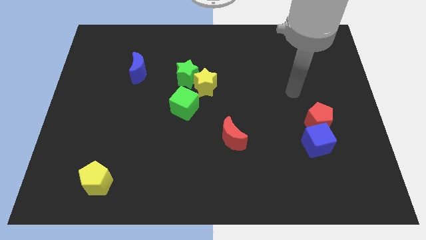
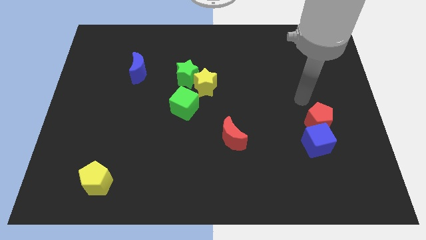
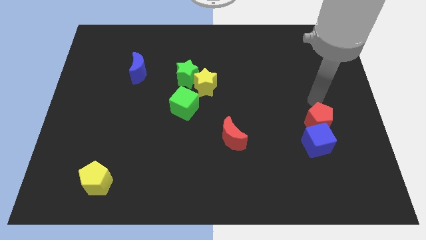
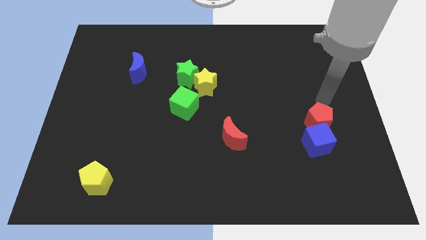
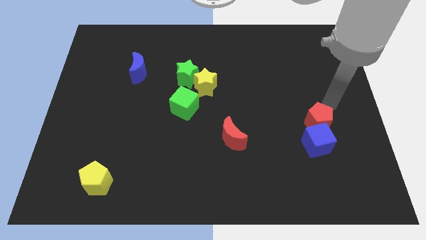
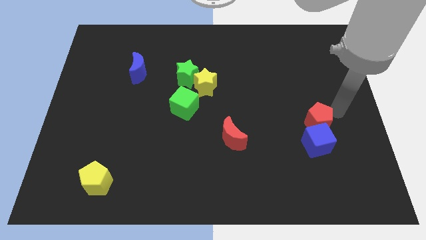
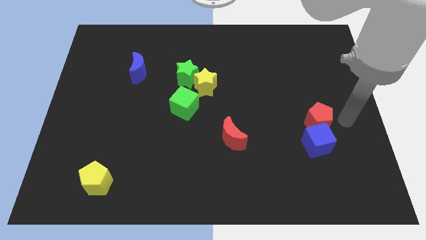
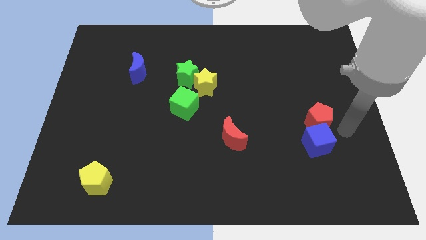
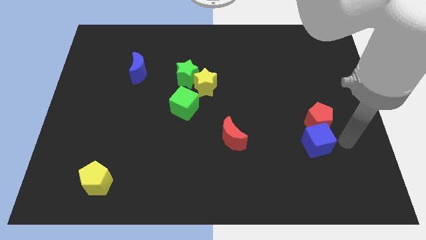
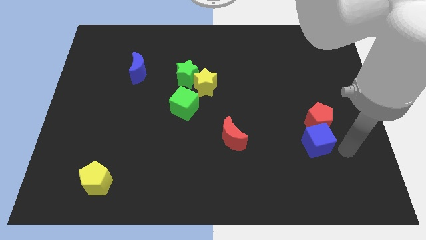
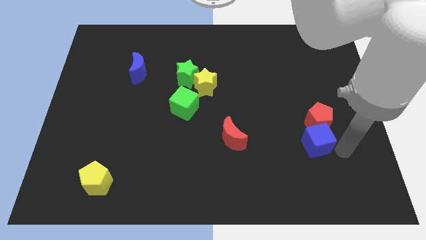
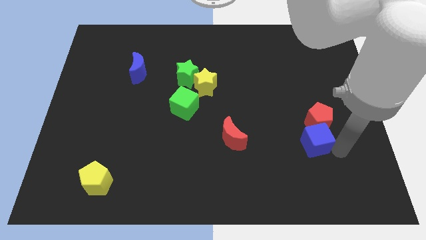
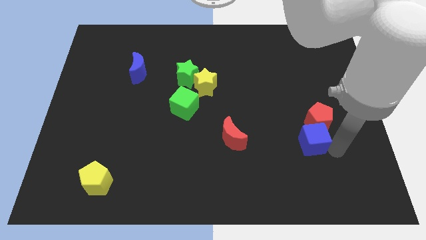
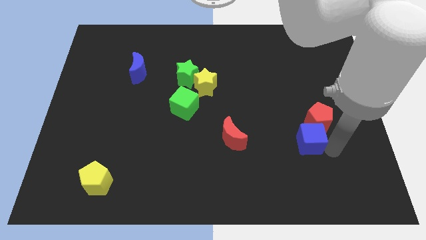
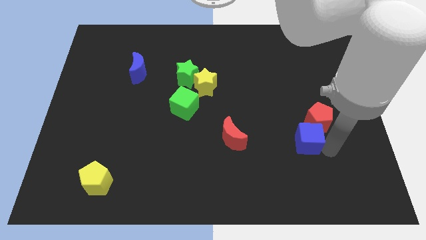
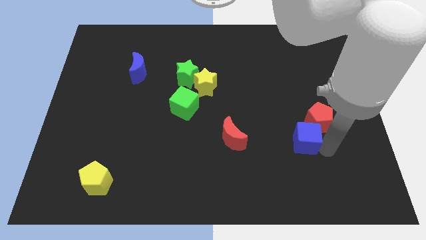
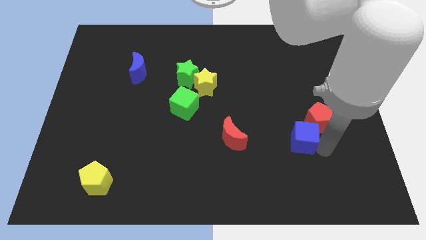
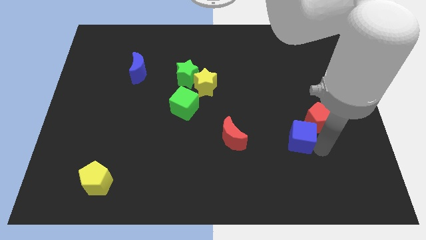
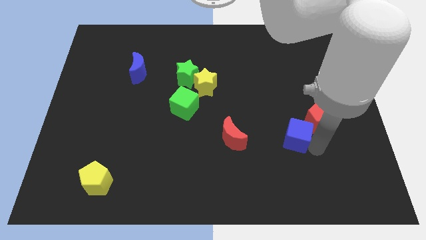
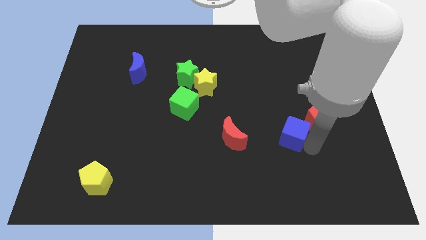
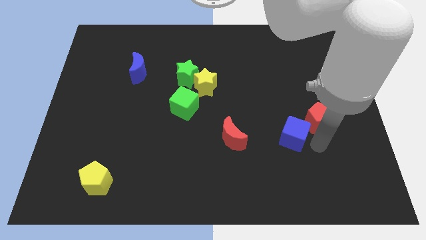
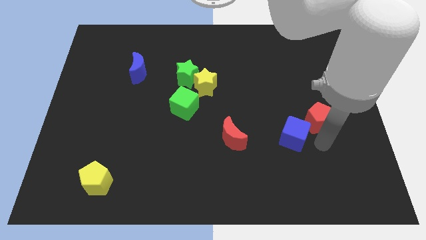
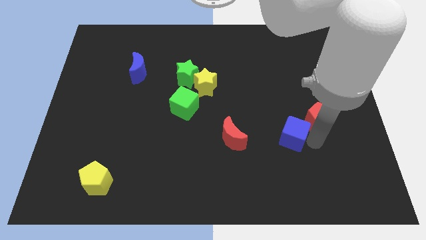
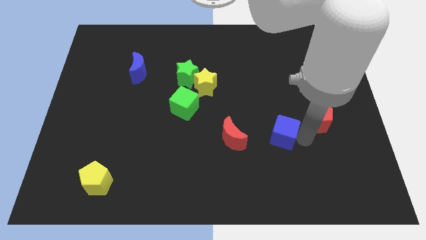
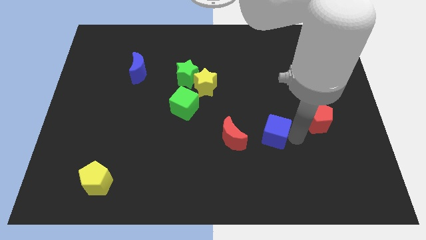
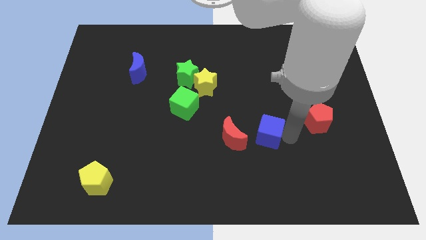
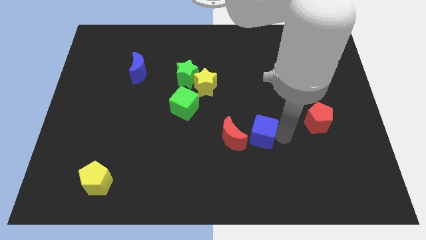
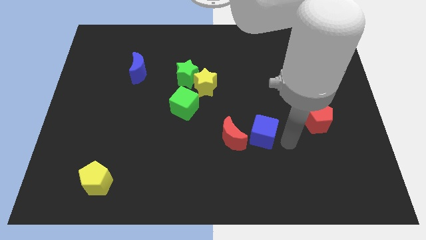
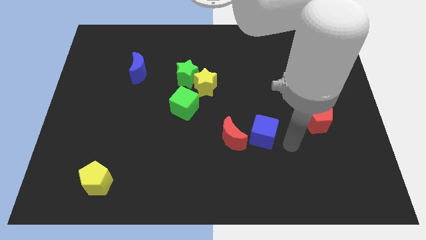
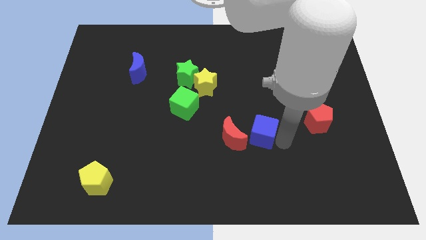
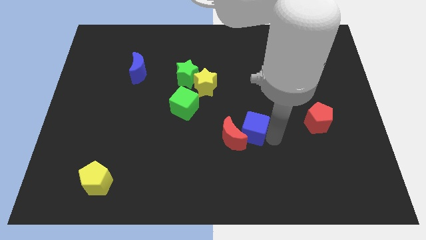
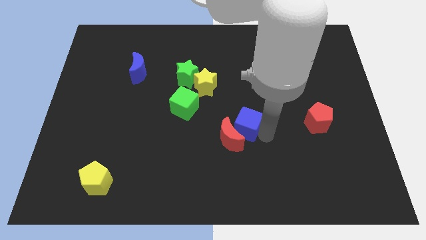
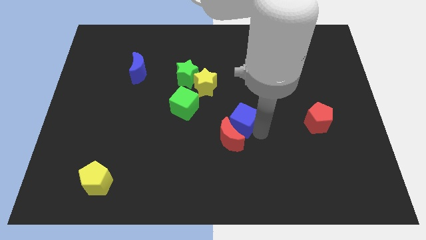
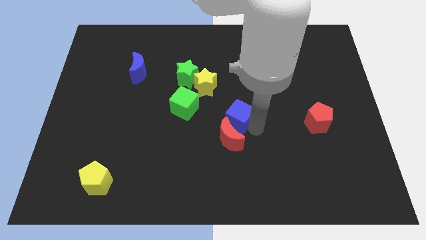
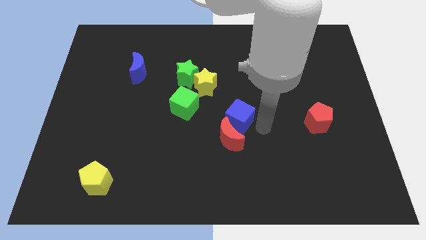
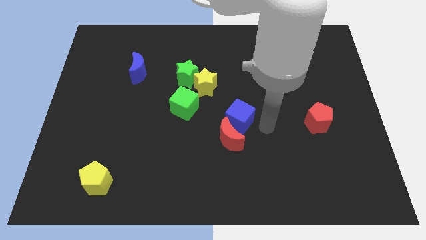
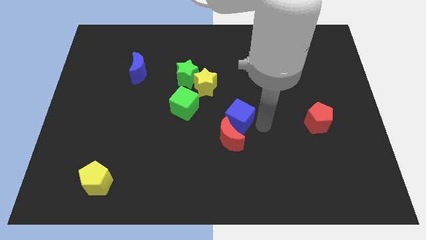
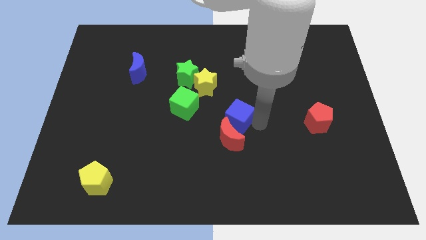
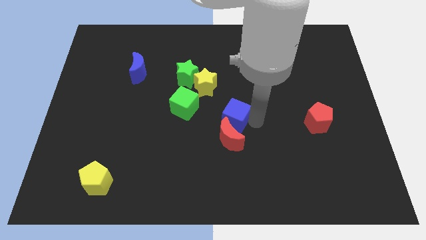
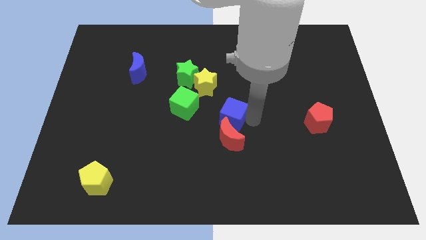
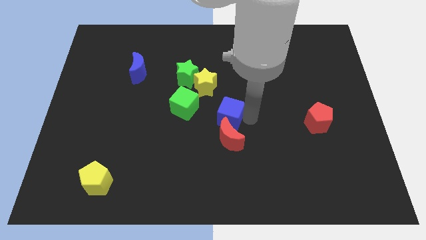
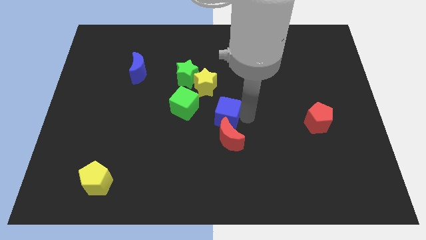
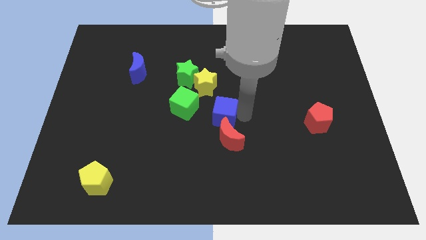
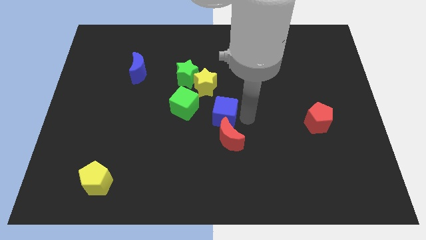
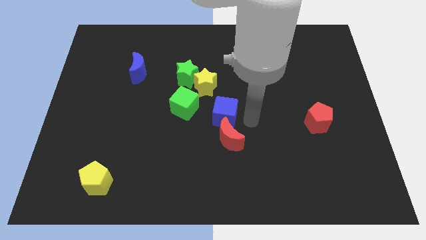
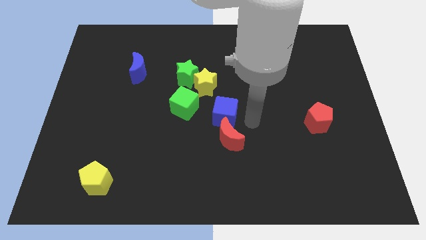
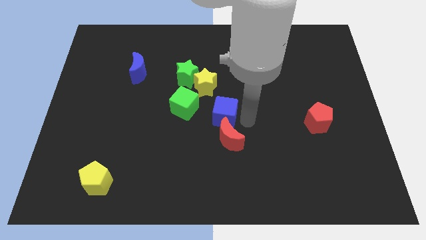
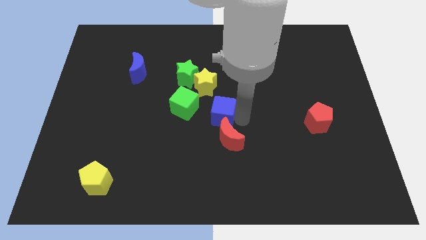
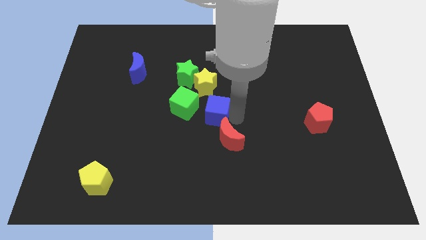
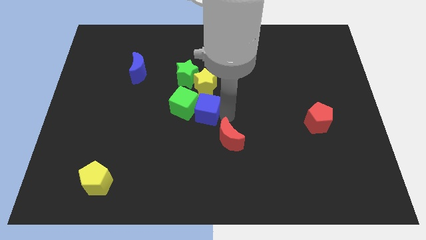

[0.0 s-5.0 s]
push the blue cube close to the green cube

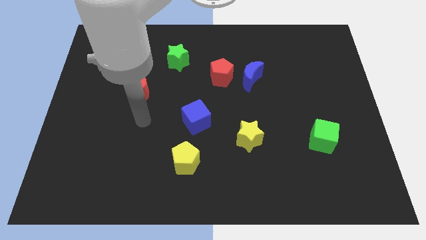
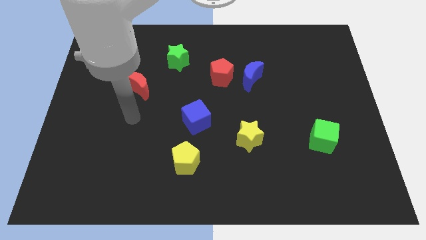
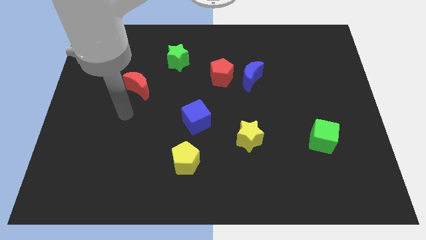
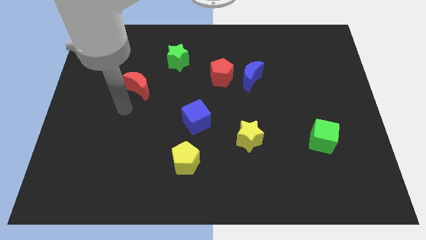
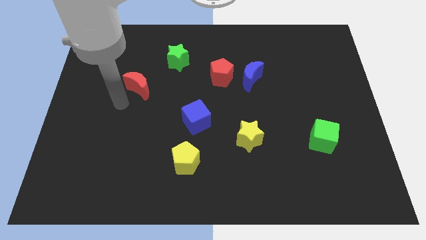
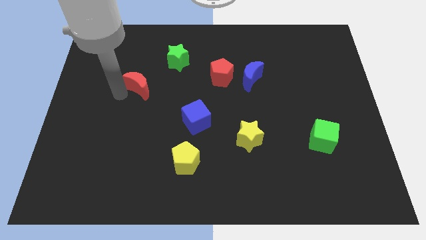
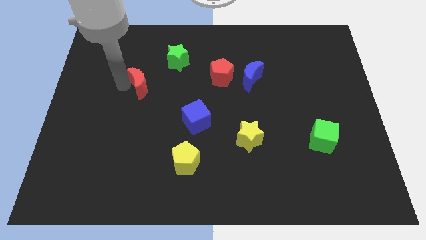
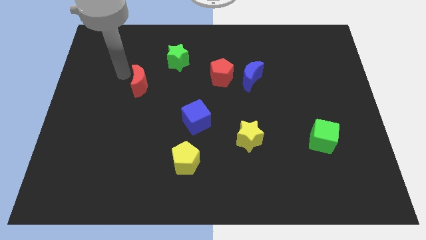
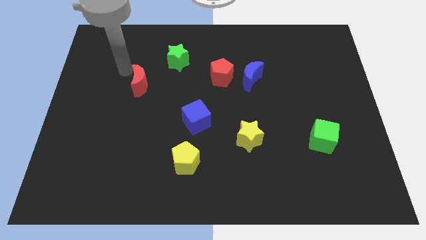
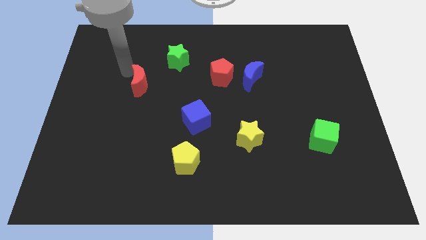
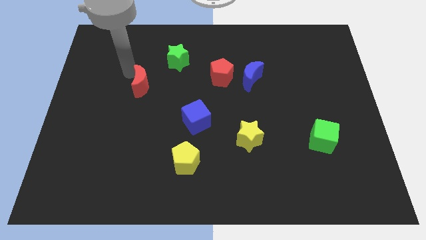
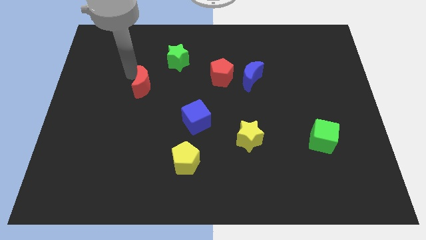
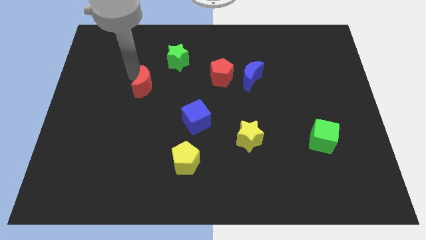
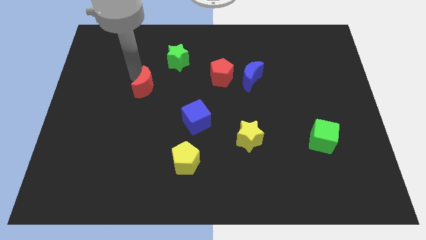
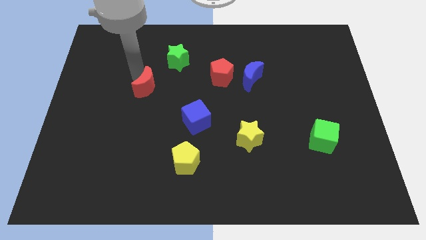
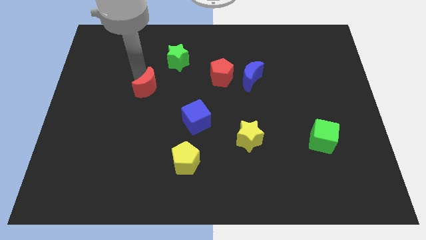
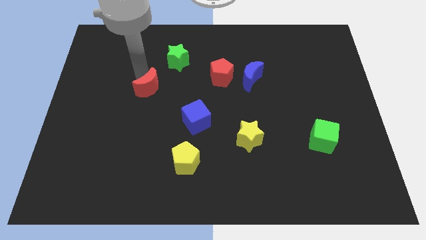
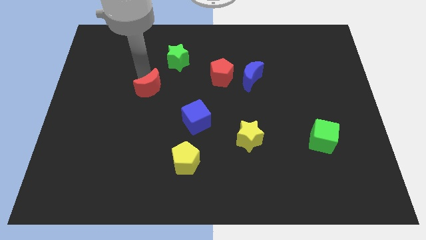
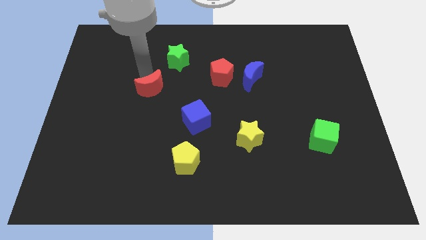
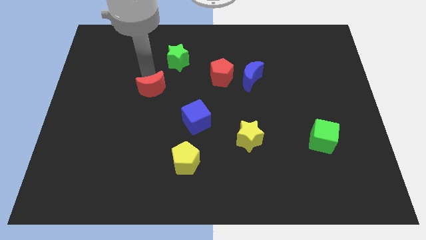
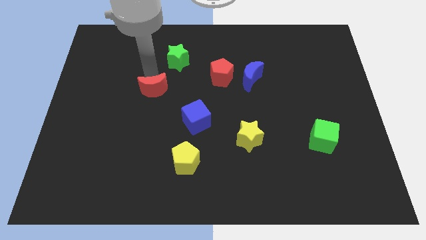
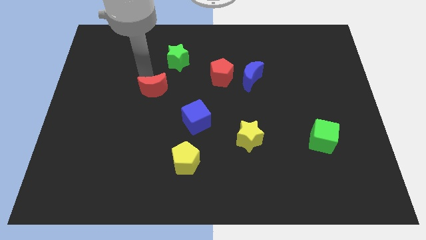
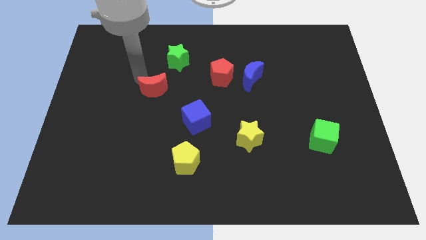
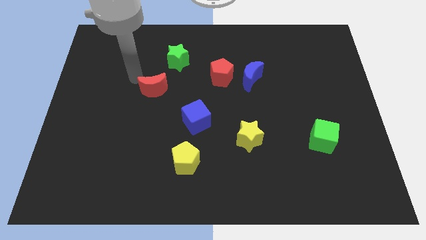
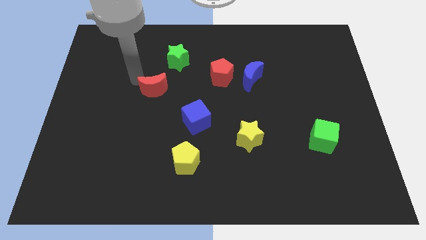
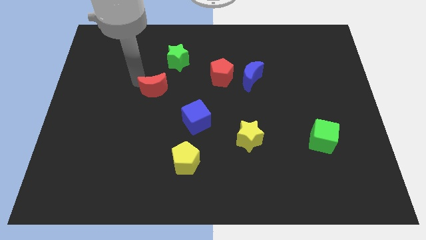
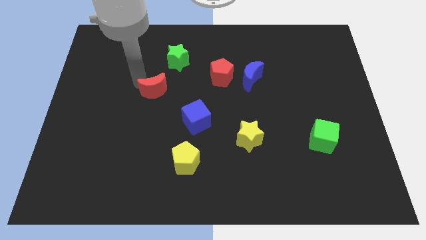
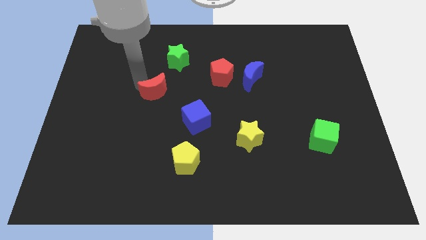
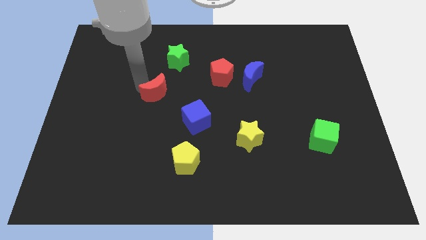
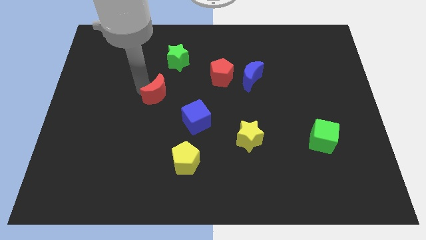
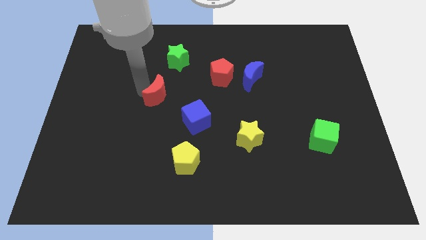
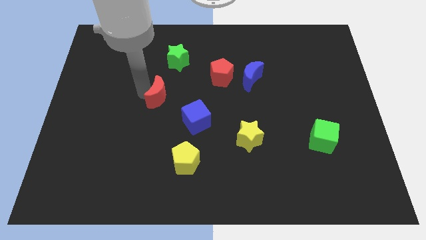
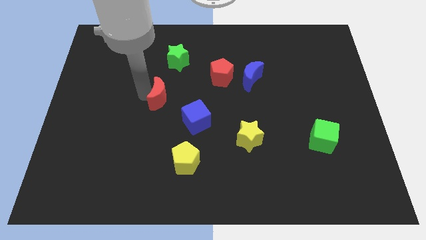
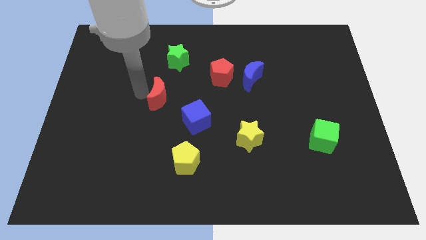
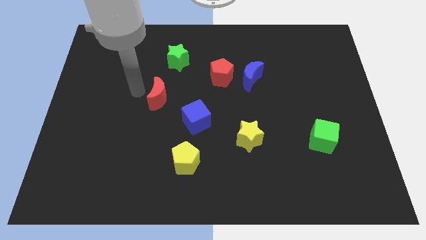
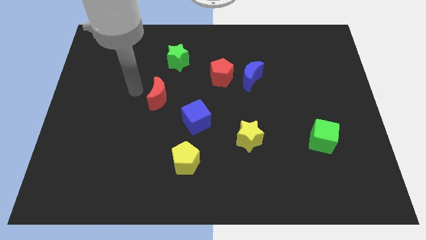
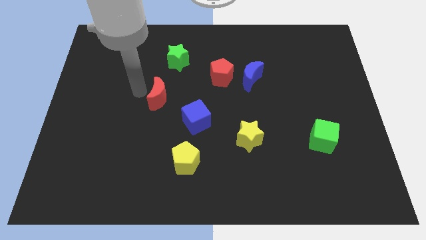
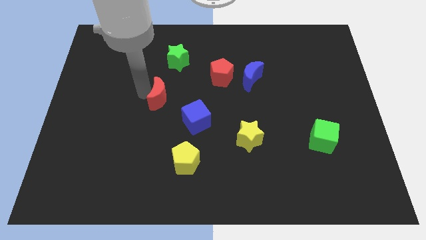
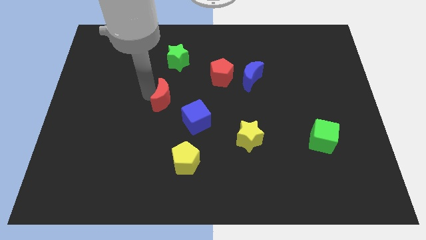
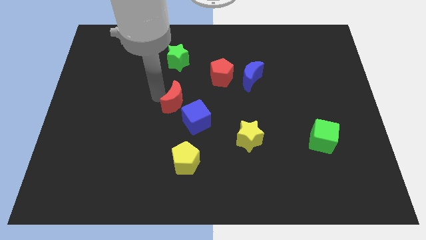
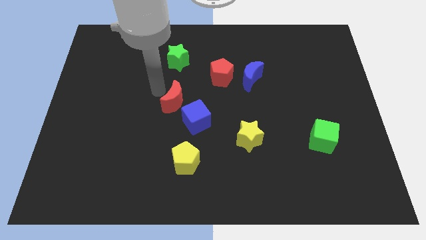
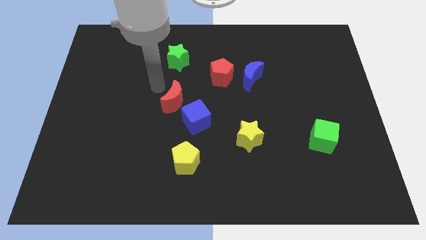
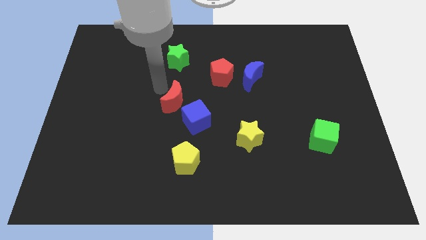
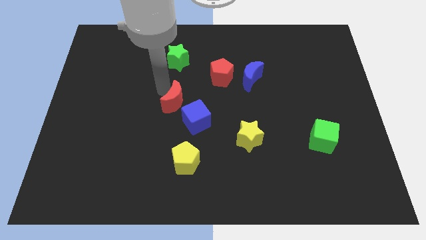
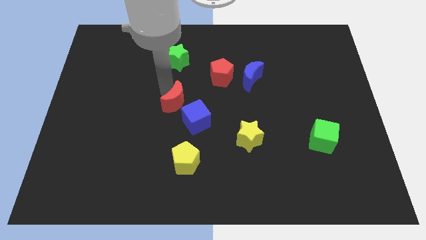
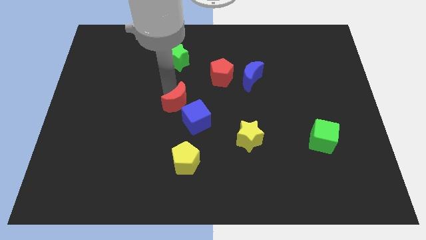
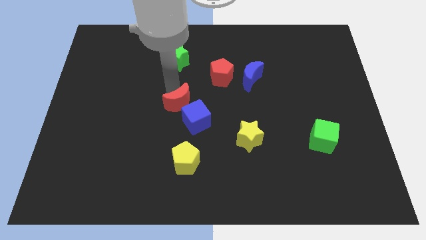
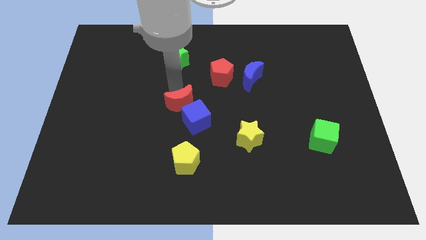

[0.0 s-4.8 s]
move the red moon close to the blue cube
